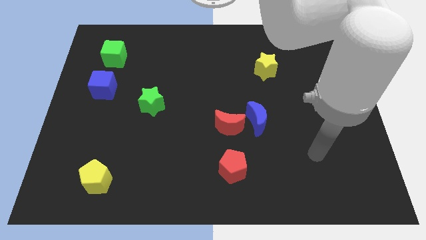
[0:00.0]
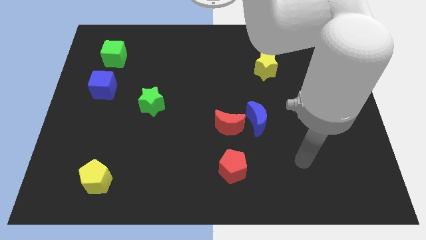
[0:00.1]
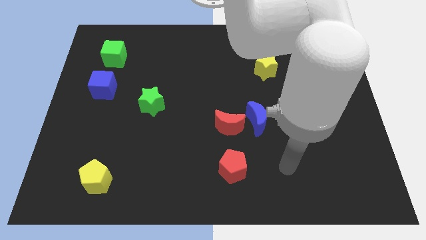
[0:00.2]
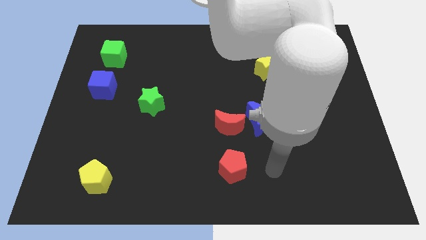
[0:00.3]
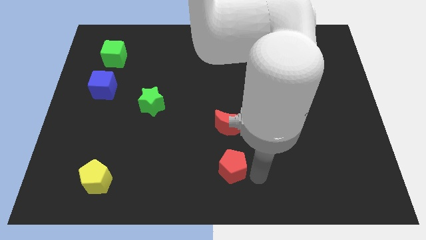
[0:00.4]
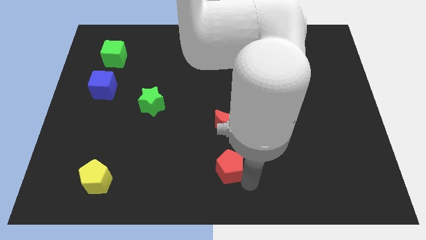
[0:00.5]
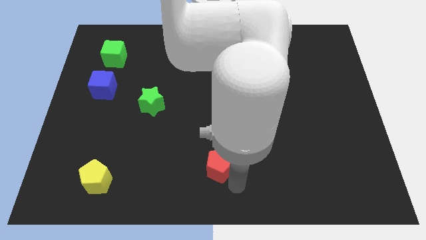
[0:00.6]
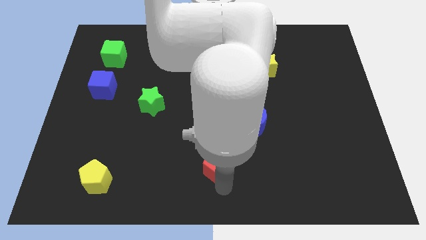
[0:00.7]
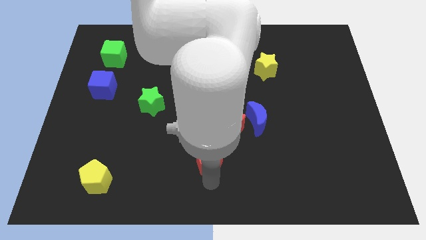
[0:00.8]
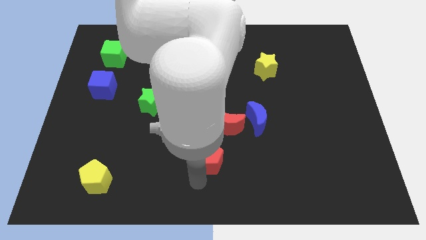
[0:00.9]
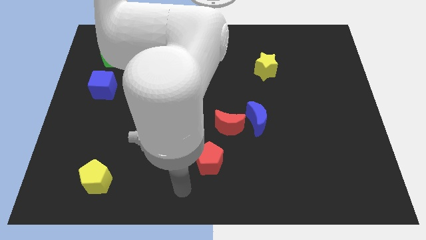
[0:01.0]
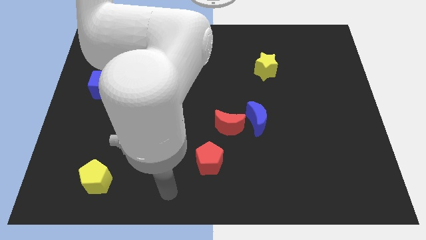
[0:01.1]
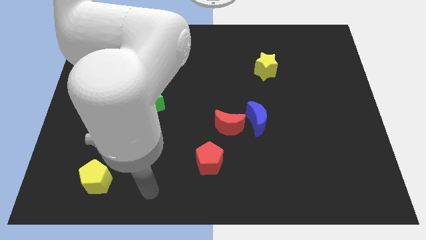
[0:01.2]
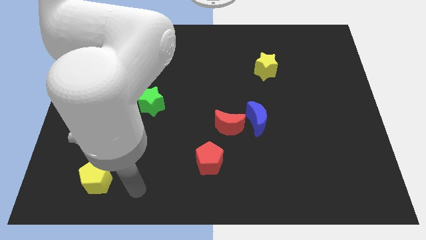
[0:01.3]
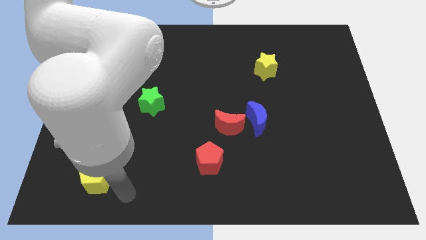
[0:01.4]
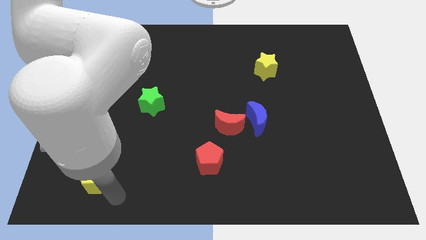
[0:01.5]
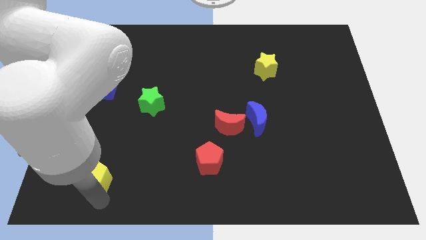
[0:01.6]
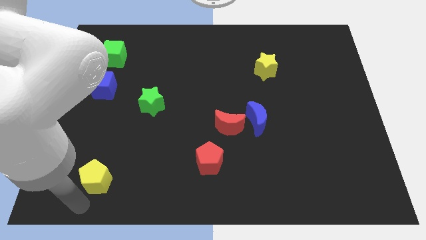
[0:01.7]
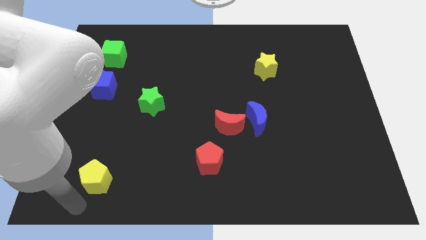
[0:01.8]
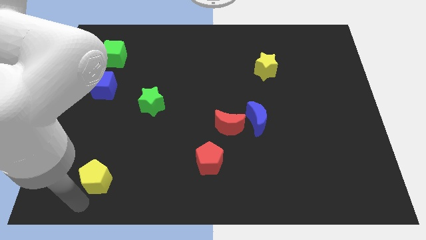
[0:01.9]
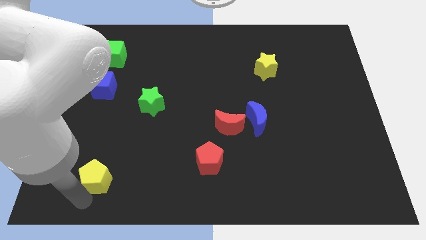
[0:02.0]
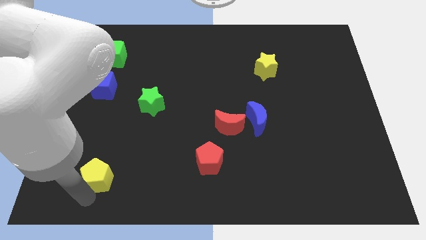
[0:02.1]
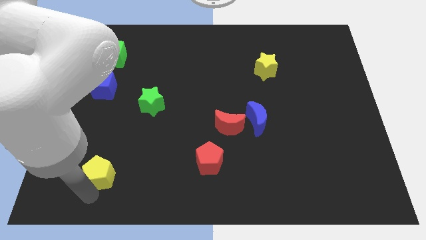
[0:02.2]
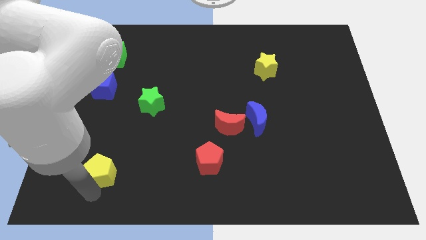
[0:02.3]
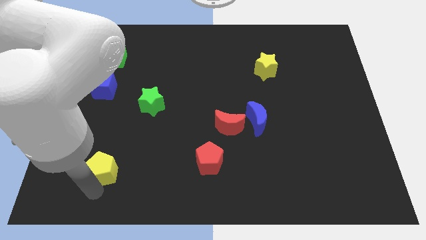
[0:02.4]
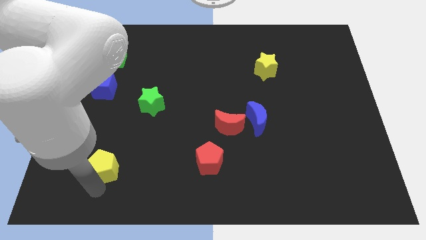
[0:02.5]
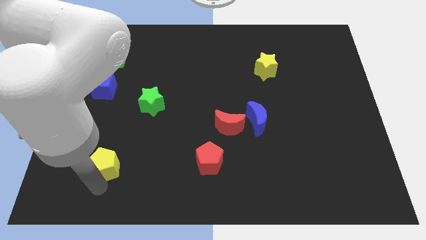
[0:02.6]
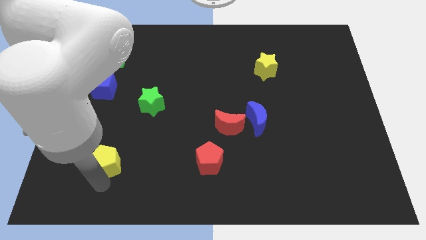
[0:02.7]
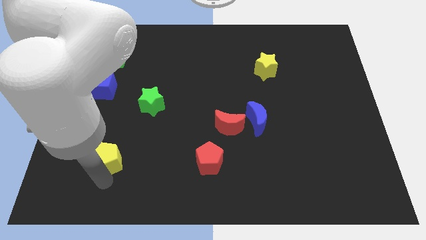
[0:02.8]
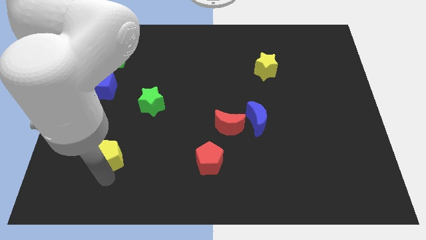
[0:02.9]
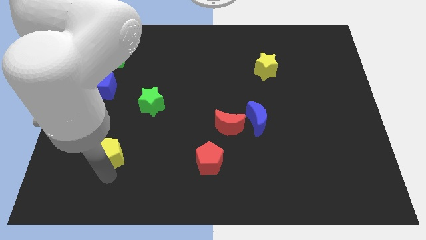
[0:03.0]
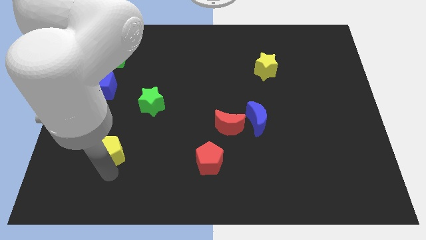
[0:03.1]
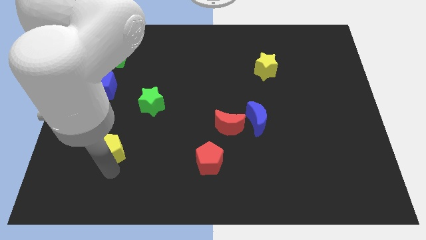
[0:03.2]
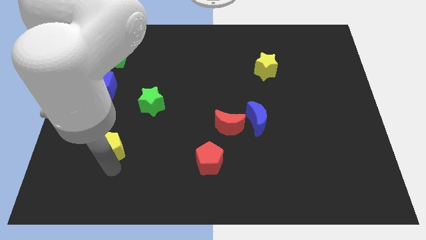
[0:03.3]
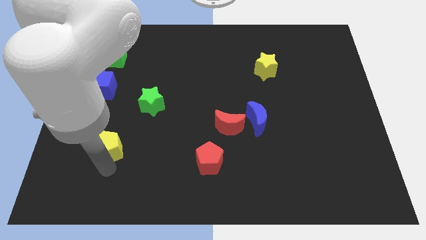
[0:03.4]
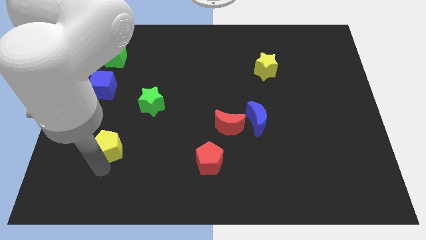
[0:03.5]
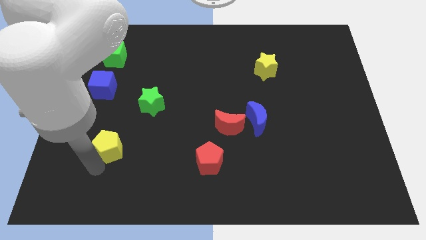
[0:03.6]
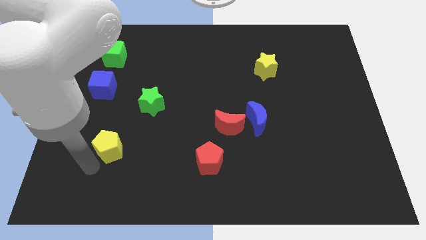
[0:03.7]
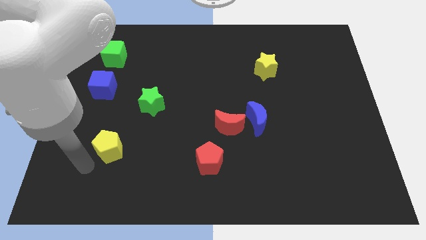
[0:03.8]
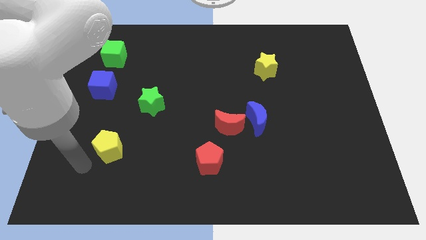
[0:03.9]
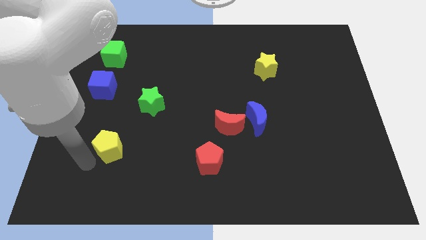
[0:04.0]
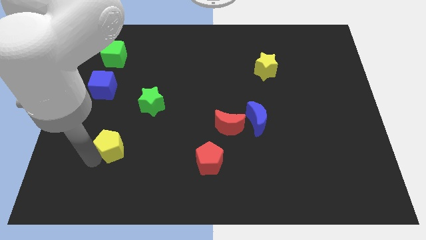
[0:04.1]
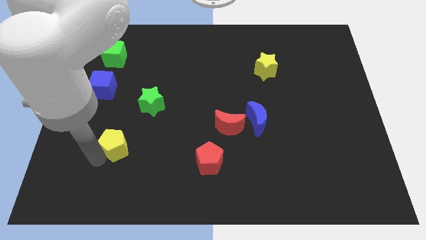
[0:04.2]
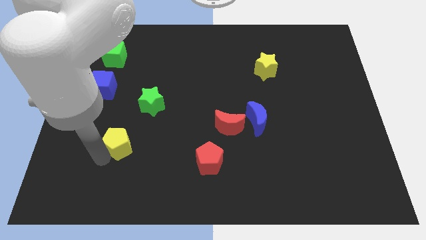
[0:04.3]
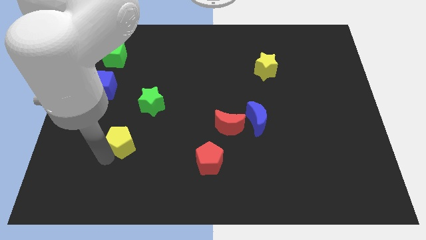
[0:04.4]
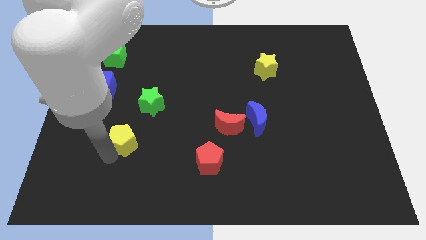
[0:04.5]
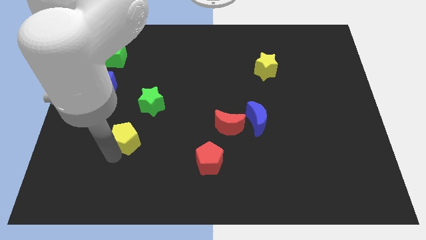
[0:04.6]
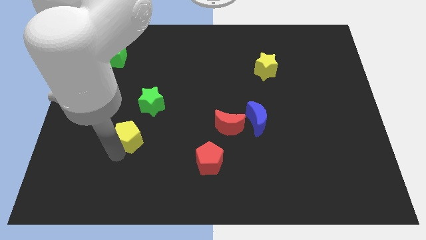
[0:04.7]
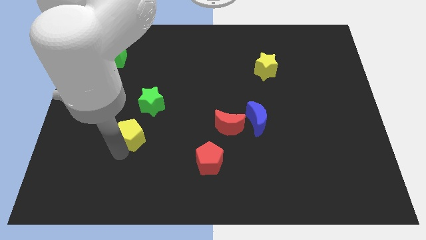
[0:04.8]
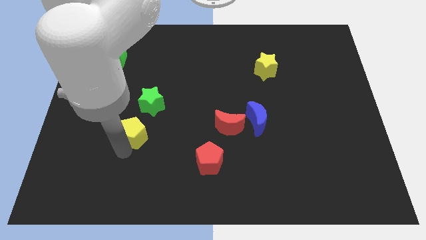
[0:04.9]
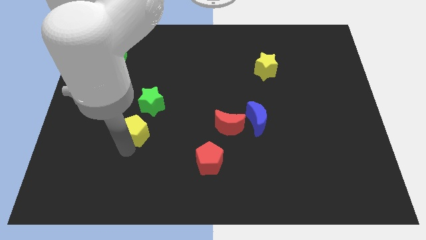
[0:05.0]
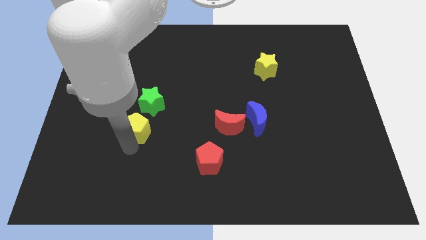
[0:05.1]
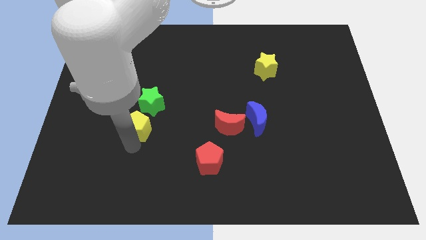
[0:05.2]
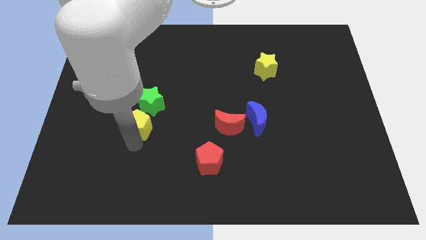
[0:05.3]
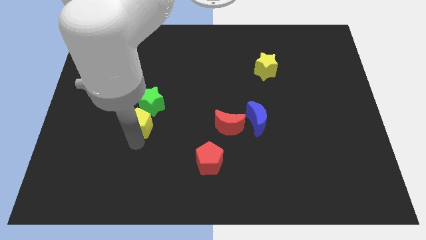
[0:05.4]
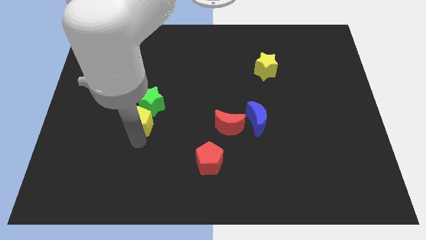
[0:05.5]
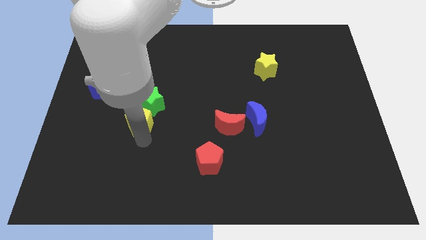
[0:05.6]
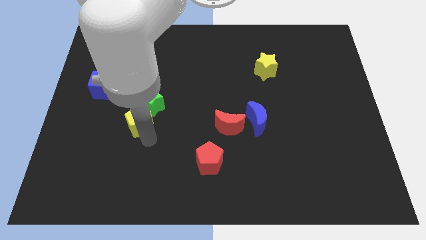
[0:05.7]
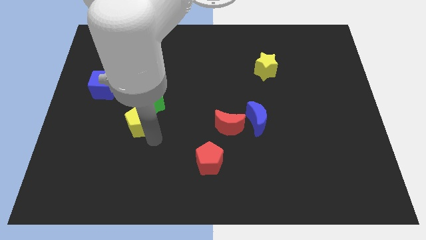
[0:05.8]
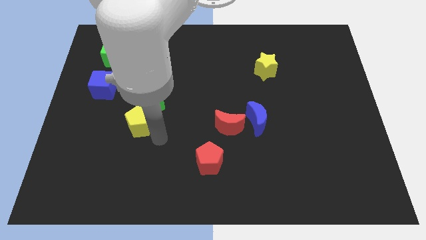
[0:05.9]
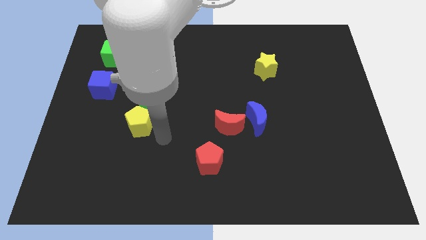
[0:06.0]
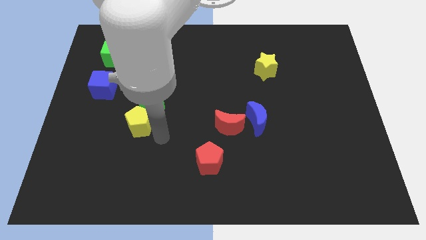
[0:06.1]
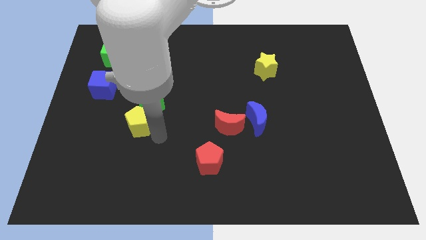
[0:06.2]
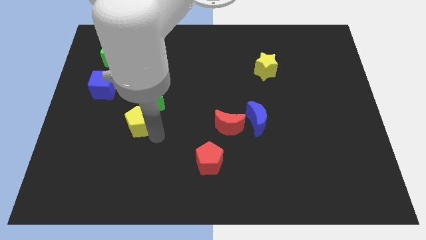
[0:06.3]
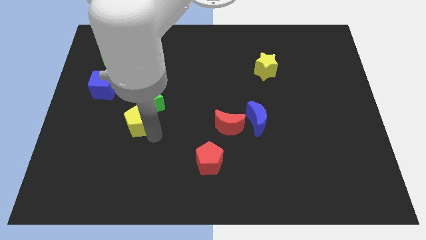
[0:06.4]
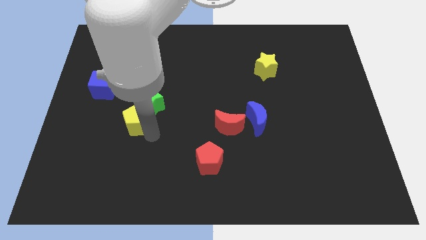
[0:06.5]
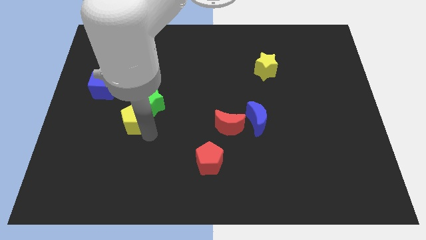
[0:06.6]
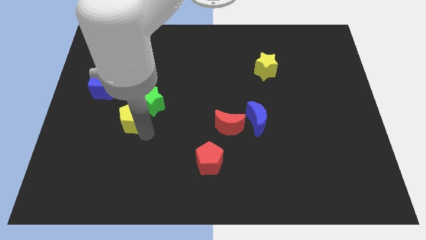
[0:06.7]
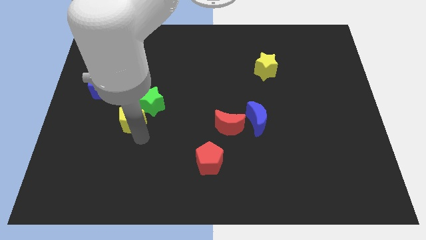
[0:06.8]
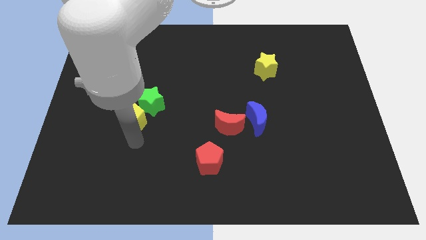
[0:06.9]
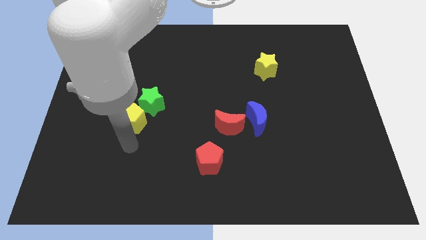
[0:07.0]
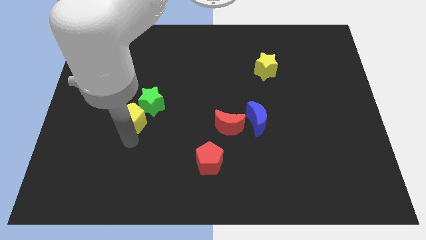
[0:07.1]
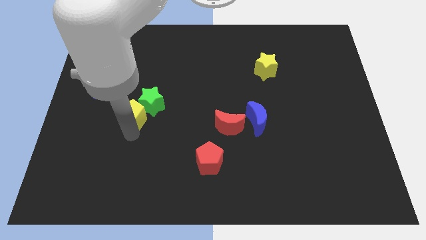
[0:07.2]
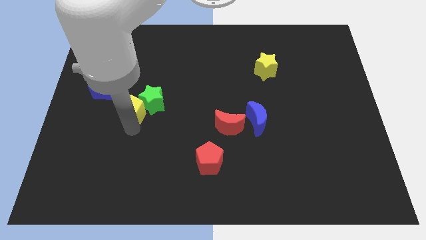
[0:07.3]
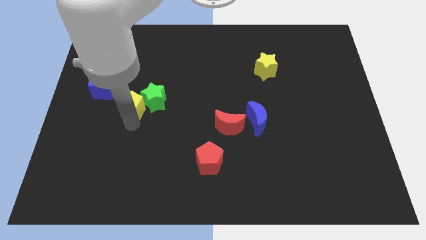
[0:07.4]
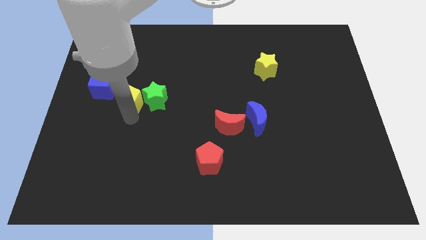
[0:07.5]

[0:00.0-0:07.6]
move the yellow pentagon right of the blue cube
